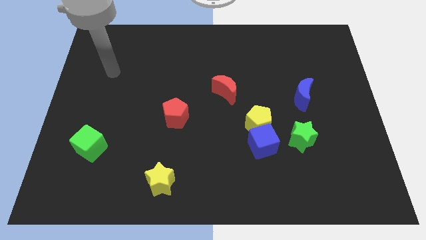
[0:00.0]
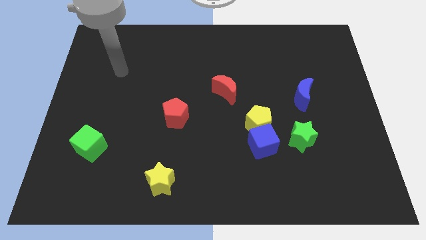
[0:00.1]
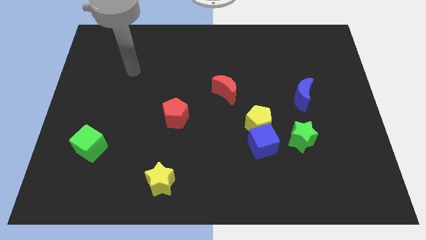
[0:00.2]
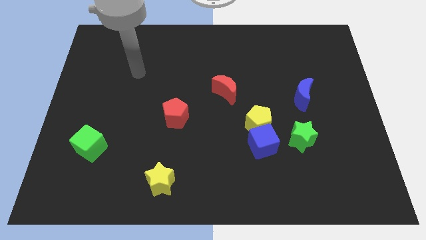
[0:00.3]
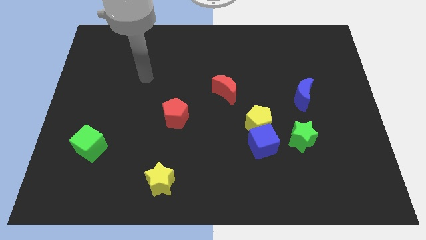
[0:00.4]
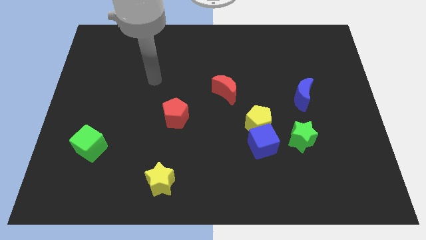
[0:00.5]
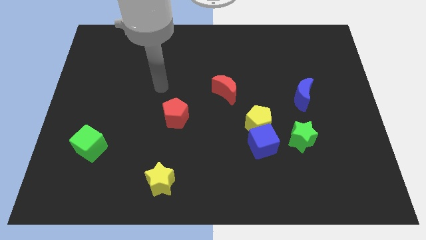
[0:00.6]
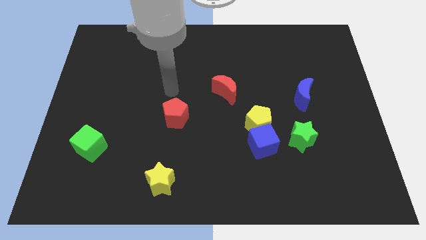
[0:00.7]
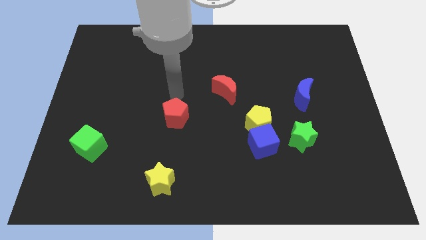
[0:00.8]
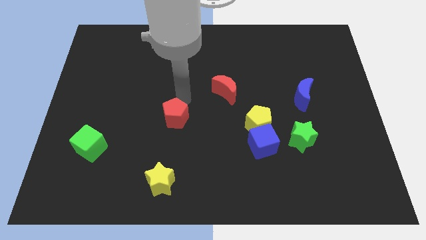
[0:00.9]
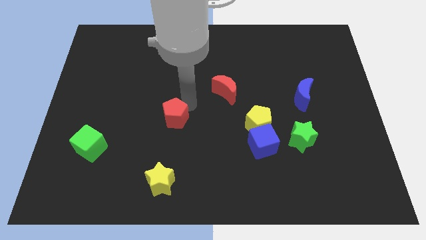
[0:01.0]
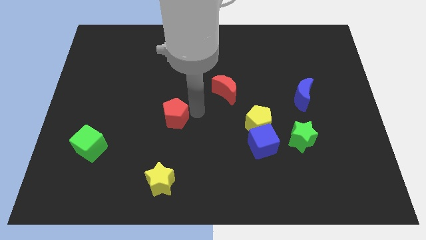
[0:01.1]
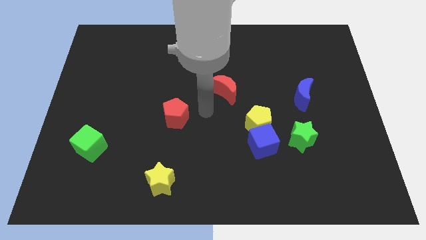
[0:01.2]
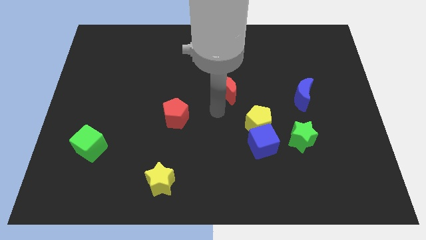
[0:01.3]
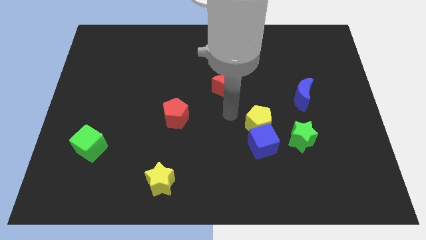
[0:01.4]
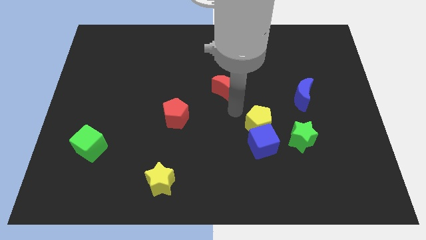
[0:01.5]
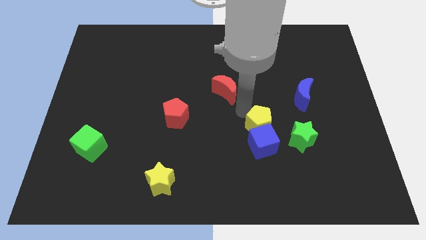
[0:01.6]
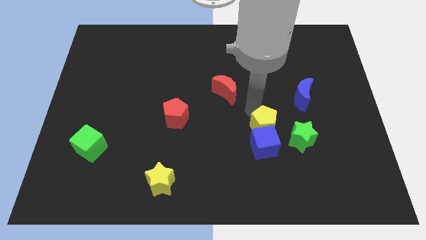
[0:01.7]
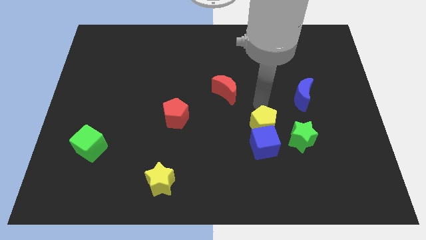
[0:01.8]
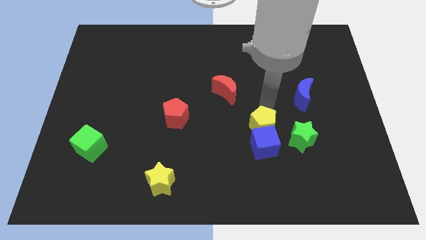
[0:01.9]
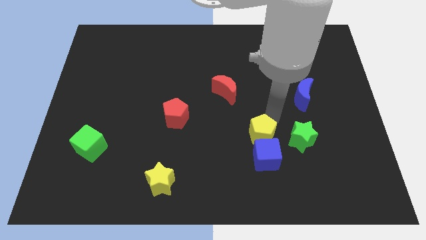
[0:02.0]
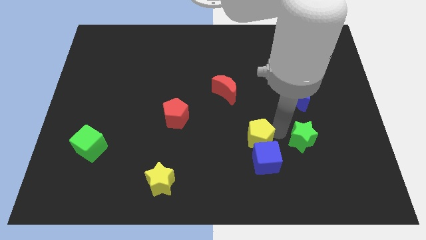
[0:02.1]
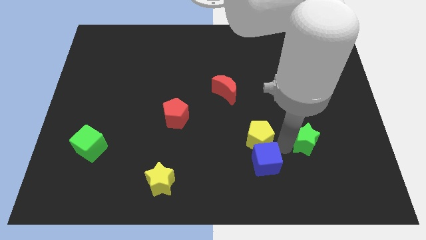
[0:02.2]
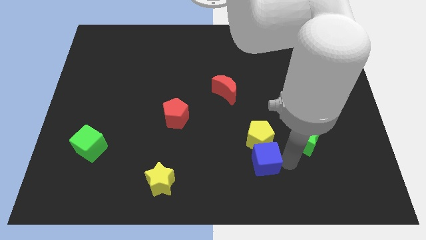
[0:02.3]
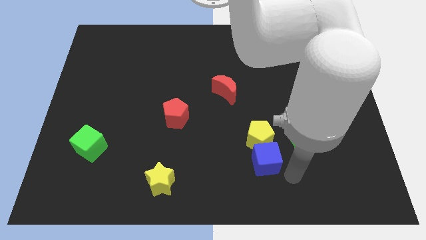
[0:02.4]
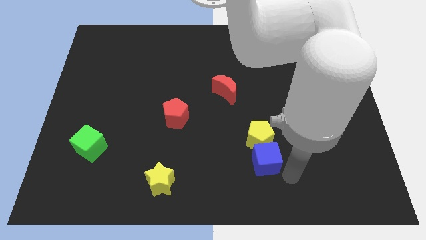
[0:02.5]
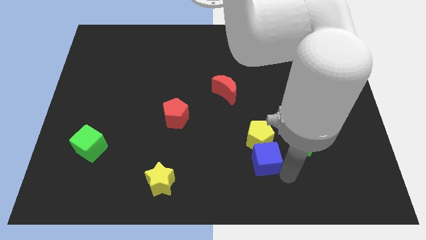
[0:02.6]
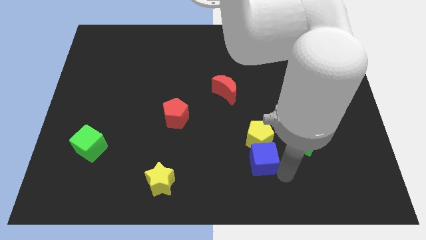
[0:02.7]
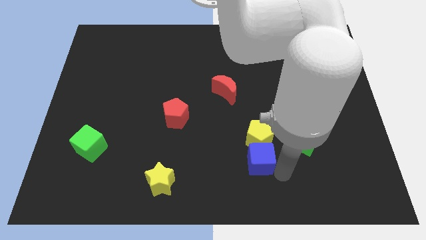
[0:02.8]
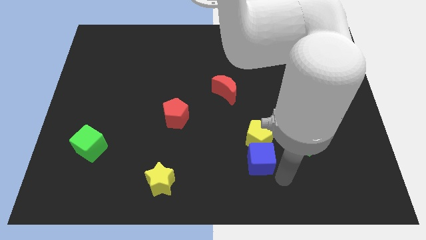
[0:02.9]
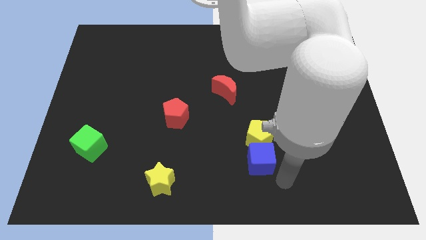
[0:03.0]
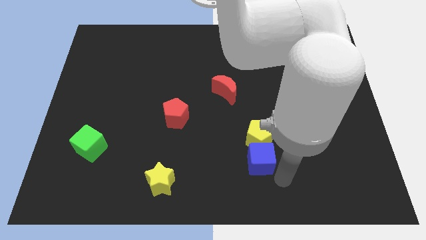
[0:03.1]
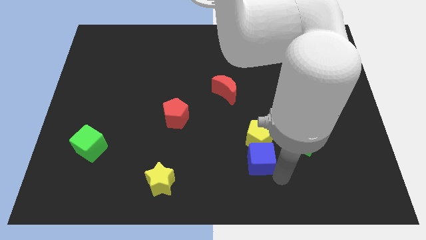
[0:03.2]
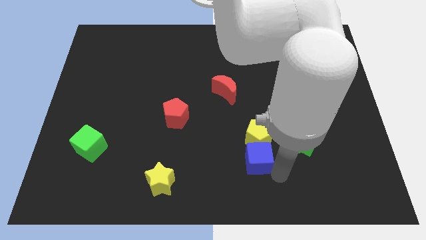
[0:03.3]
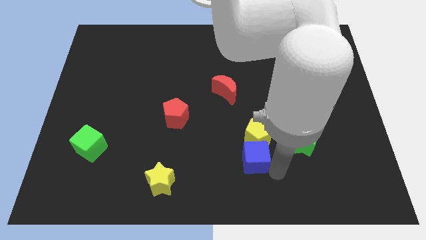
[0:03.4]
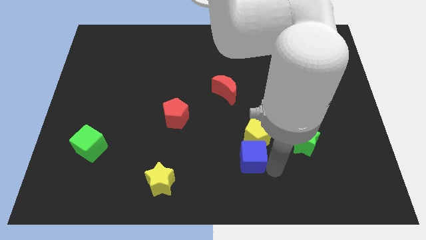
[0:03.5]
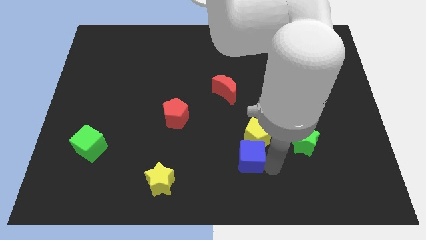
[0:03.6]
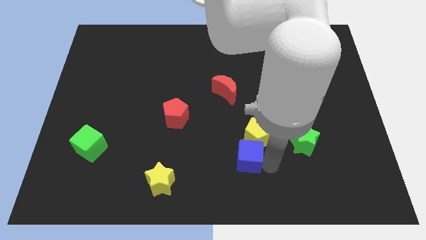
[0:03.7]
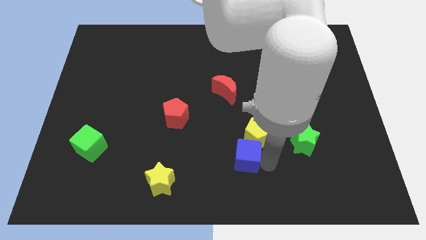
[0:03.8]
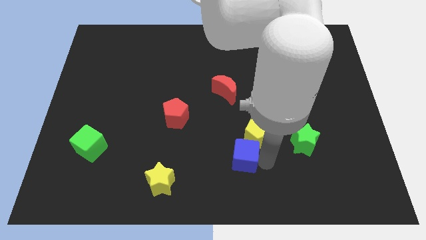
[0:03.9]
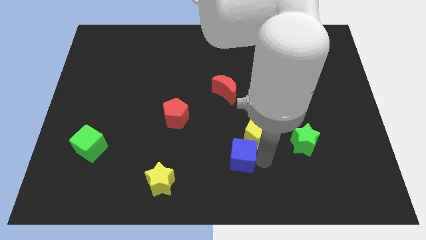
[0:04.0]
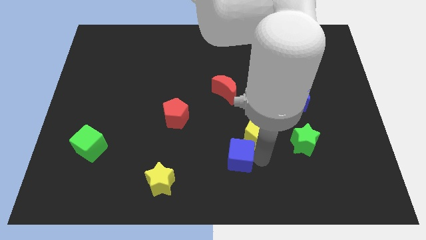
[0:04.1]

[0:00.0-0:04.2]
move the blue cube away from the yellow pentagon and green star

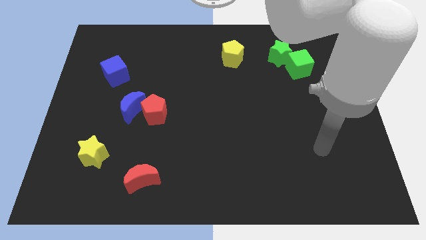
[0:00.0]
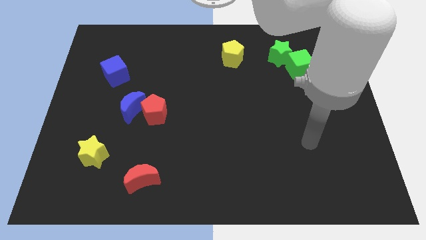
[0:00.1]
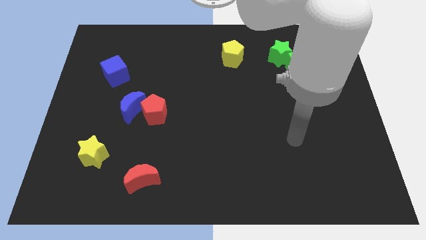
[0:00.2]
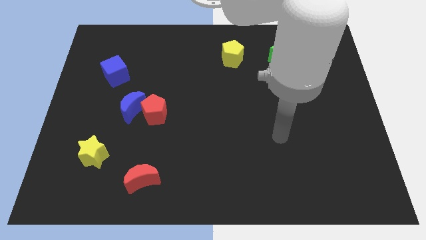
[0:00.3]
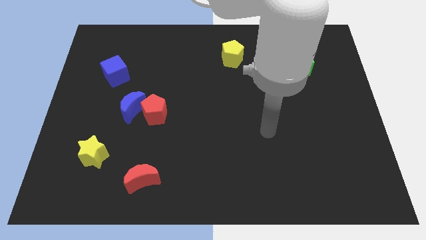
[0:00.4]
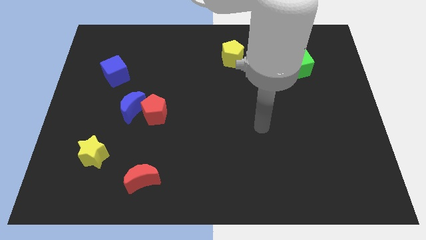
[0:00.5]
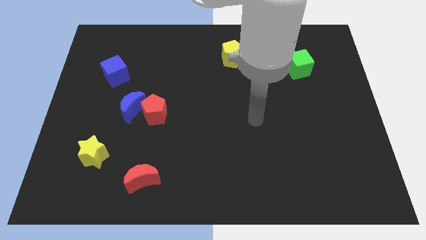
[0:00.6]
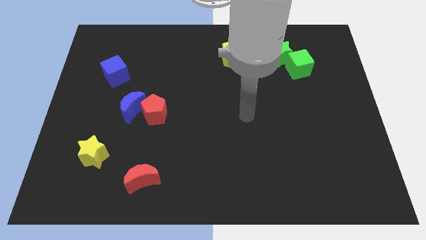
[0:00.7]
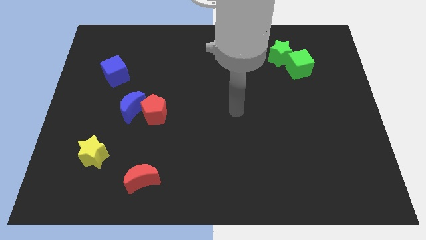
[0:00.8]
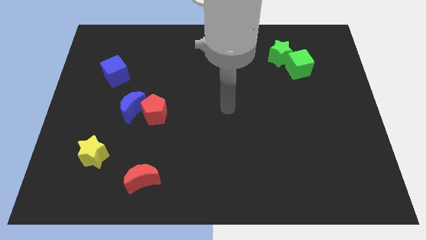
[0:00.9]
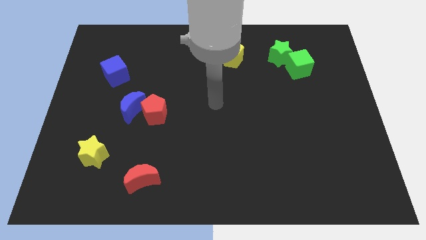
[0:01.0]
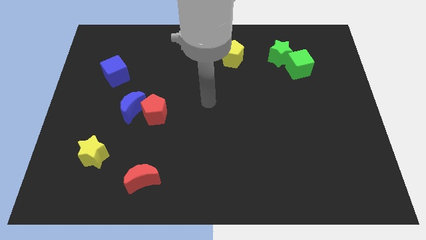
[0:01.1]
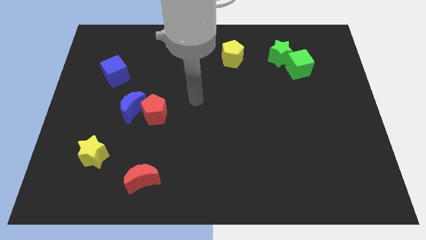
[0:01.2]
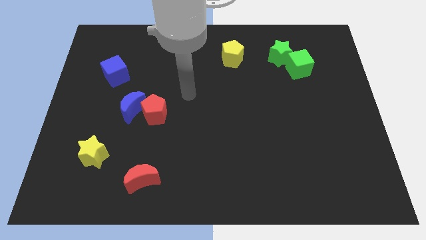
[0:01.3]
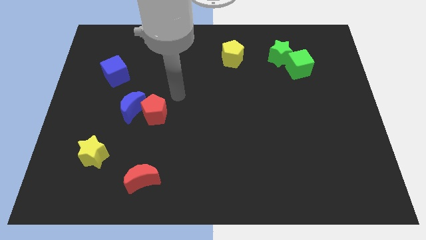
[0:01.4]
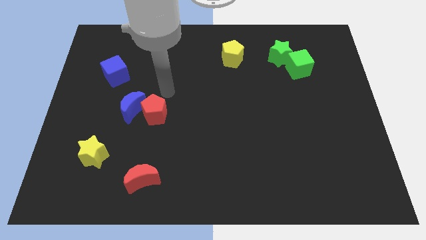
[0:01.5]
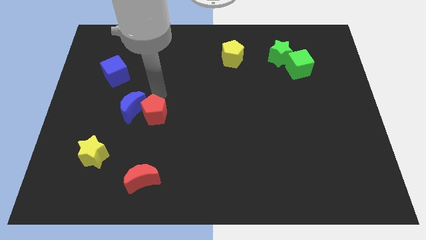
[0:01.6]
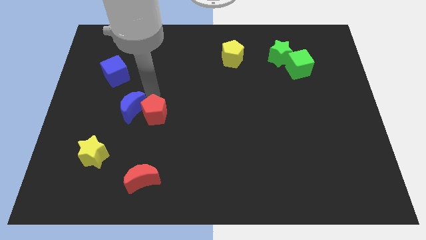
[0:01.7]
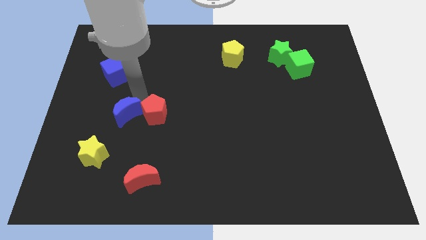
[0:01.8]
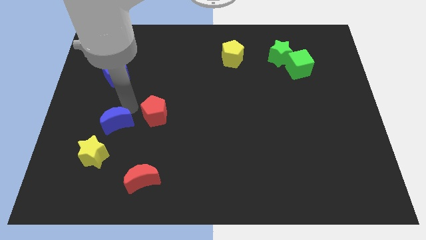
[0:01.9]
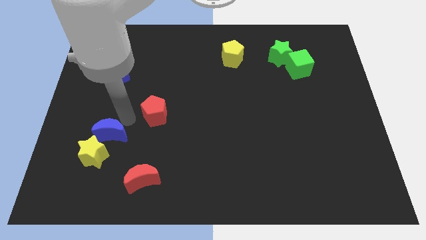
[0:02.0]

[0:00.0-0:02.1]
move the red pentagon away from the blue moon

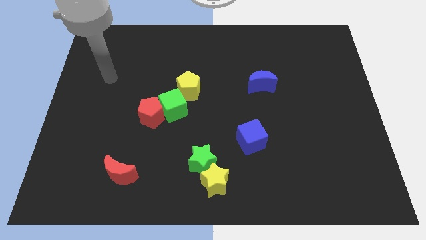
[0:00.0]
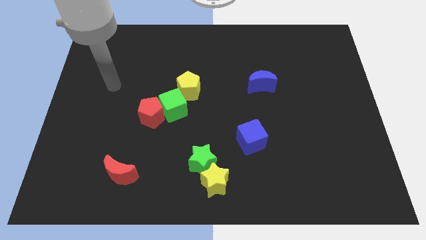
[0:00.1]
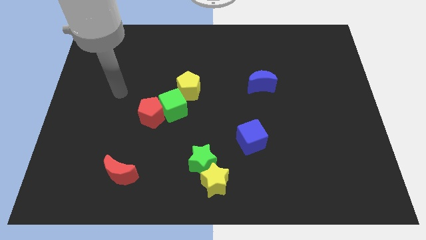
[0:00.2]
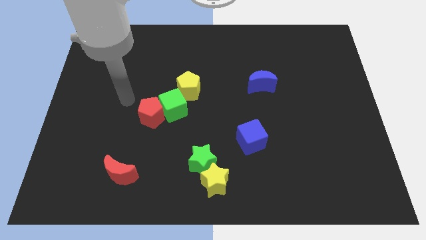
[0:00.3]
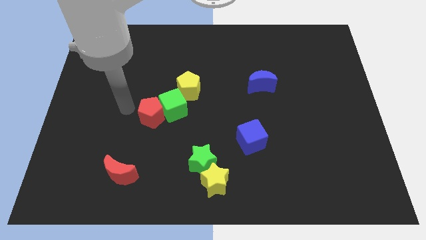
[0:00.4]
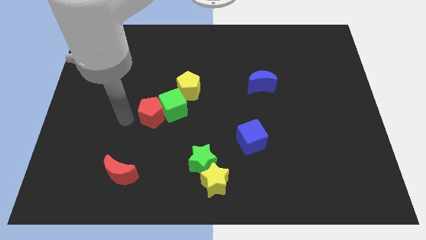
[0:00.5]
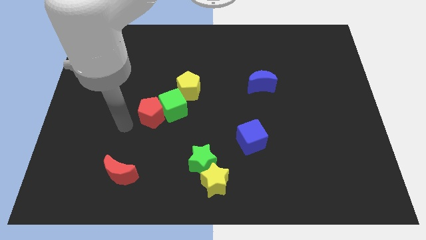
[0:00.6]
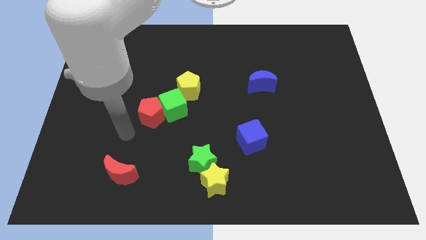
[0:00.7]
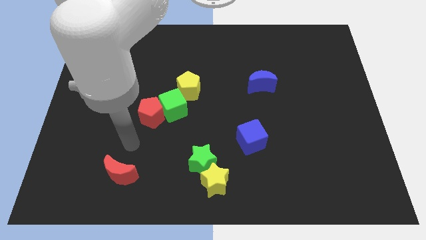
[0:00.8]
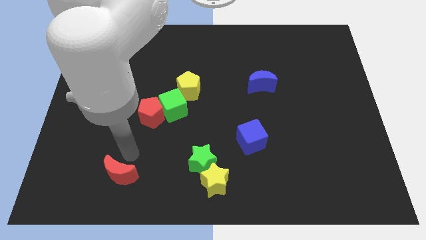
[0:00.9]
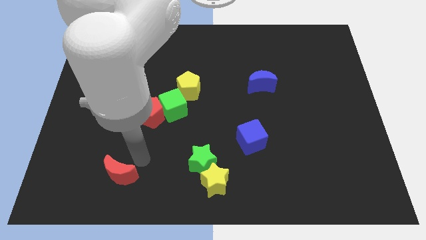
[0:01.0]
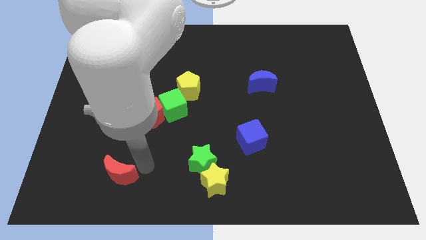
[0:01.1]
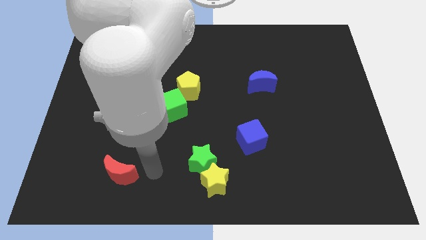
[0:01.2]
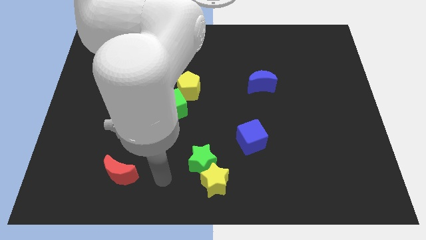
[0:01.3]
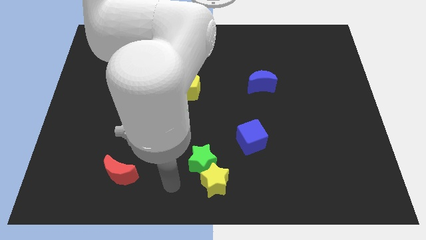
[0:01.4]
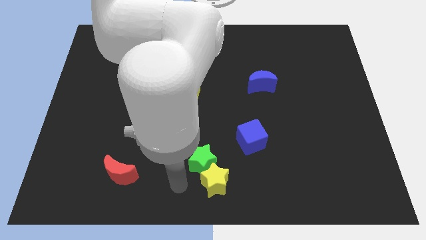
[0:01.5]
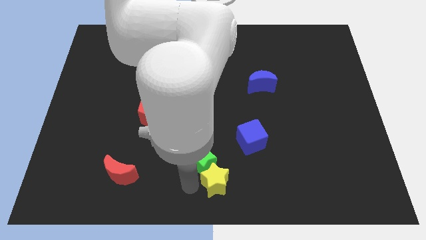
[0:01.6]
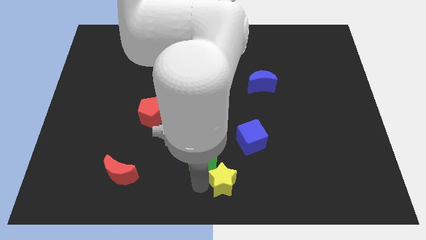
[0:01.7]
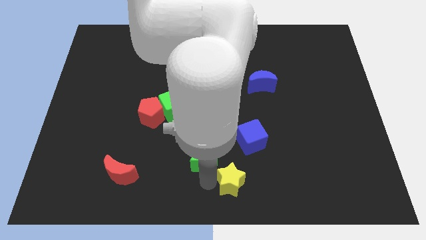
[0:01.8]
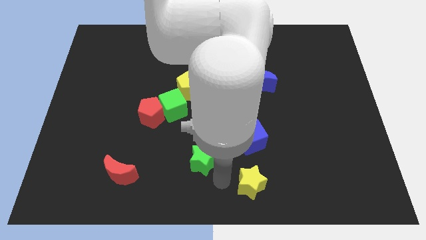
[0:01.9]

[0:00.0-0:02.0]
move the green star away from the yellow star

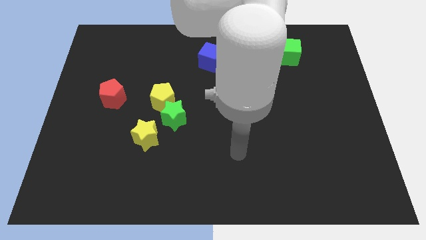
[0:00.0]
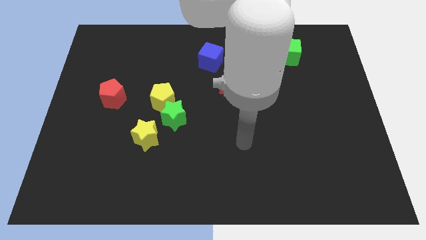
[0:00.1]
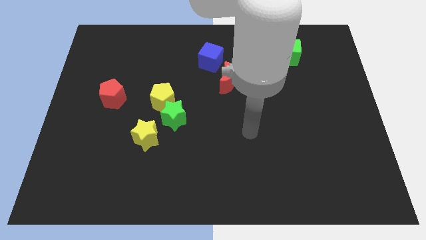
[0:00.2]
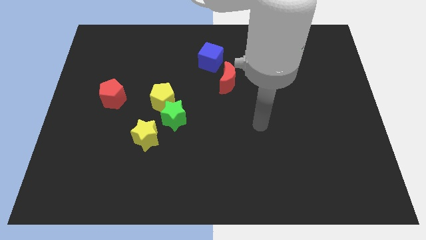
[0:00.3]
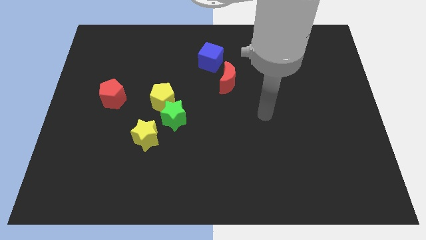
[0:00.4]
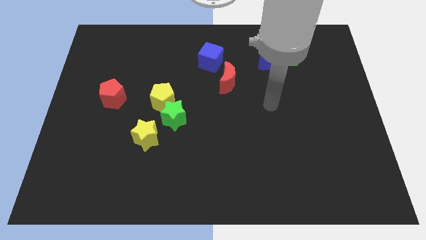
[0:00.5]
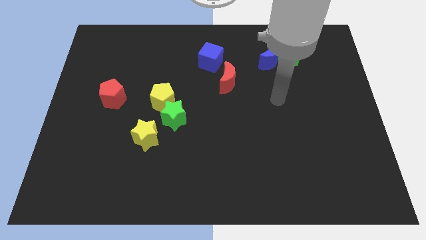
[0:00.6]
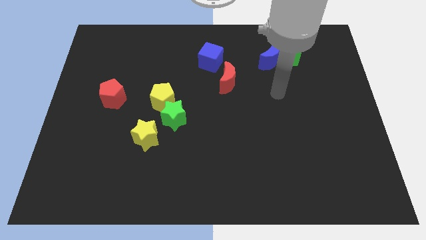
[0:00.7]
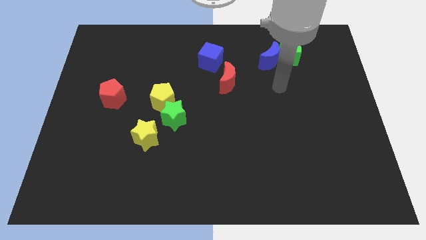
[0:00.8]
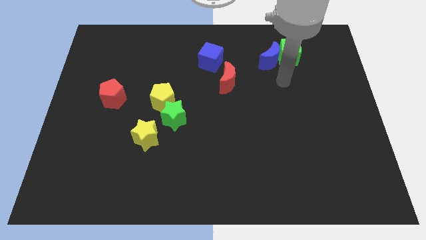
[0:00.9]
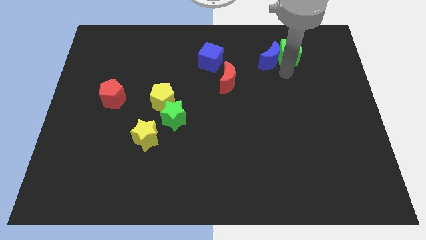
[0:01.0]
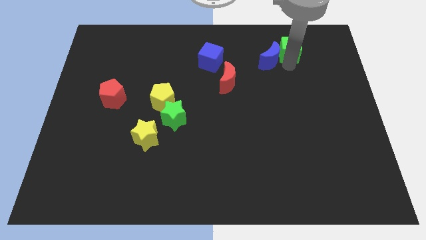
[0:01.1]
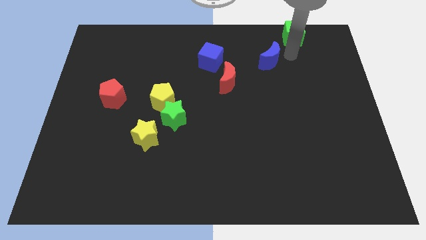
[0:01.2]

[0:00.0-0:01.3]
separate the blue moon from the green cube
